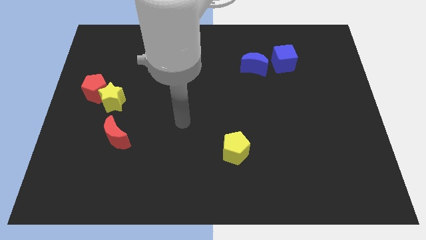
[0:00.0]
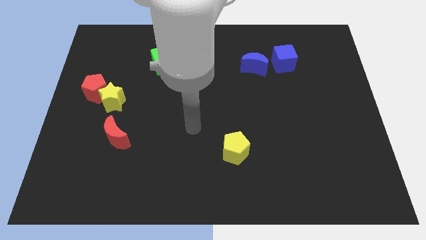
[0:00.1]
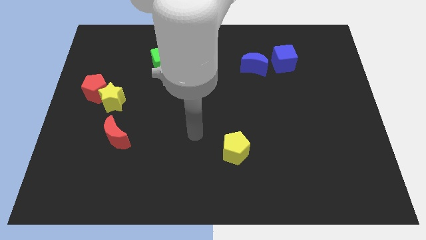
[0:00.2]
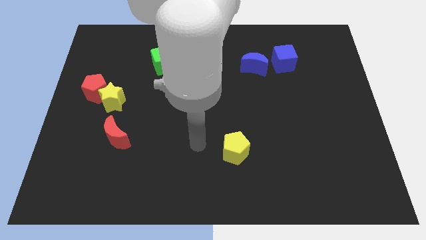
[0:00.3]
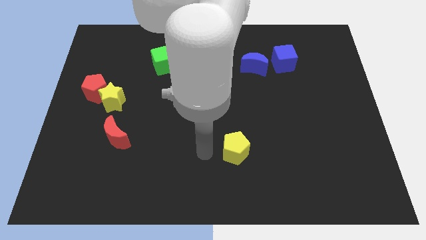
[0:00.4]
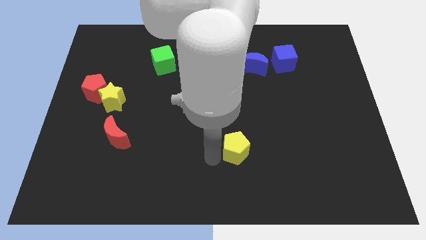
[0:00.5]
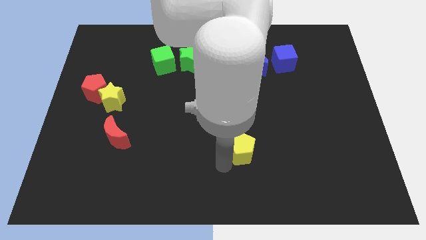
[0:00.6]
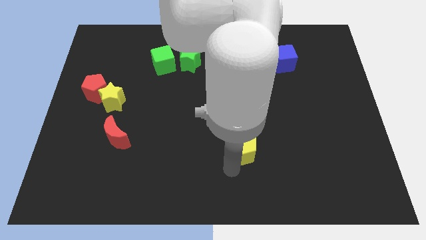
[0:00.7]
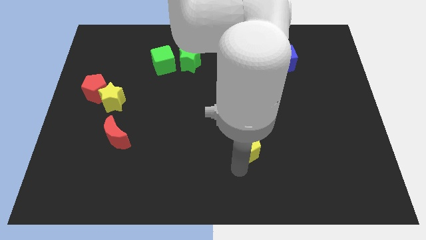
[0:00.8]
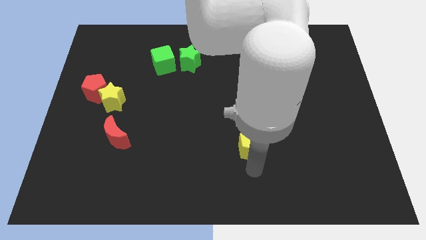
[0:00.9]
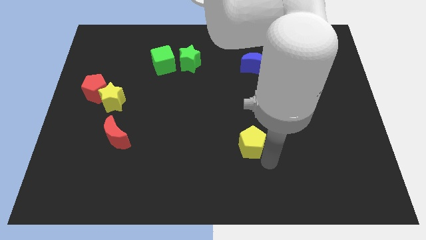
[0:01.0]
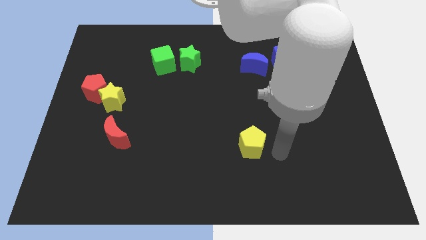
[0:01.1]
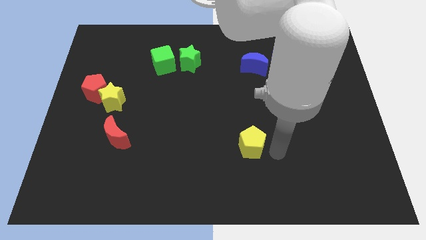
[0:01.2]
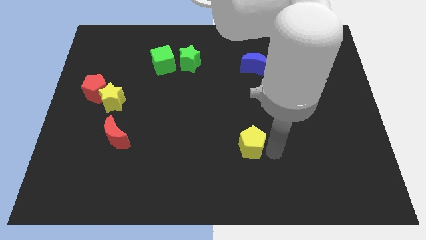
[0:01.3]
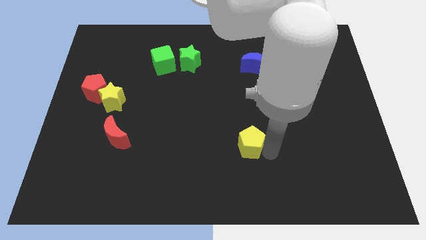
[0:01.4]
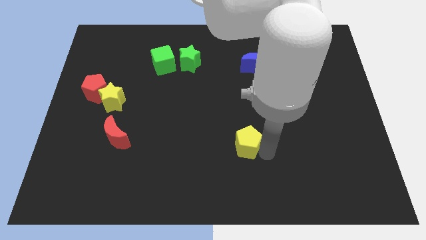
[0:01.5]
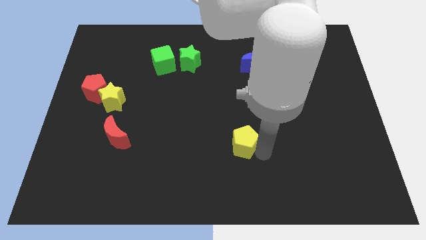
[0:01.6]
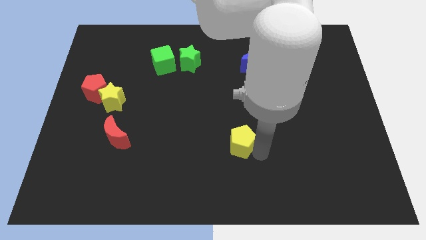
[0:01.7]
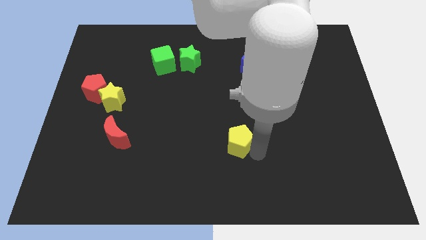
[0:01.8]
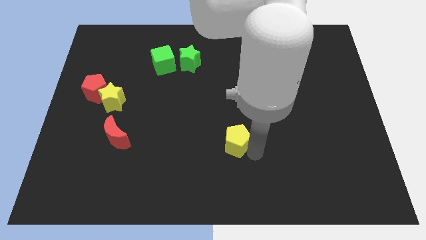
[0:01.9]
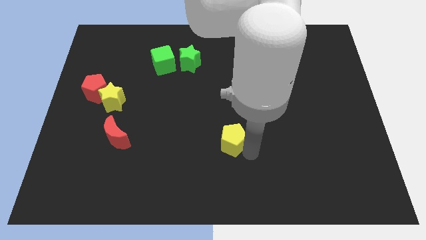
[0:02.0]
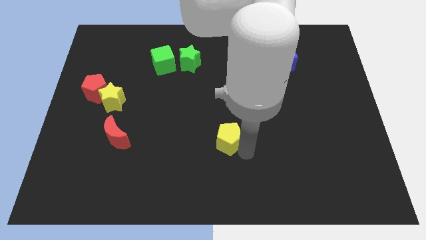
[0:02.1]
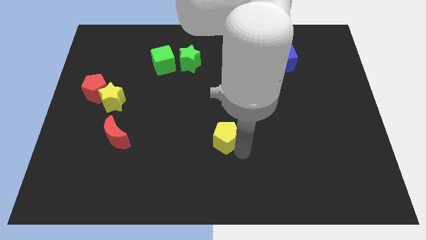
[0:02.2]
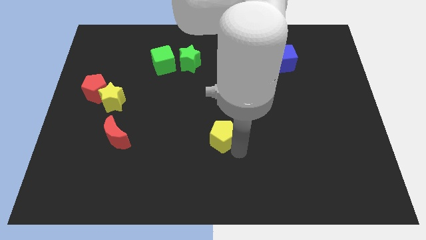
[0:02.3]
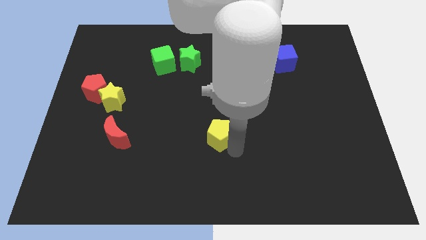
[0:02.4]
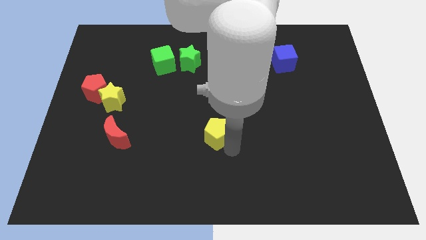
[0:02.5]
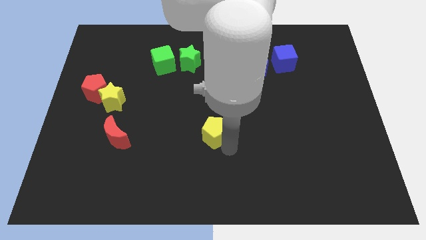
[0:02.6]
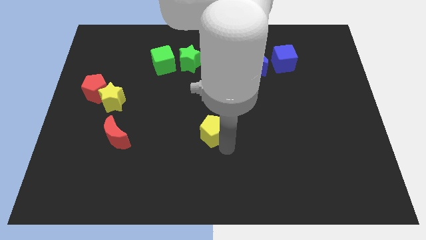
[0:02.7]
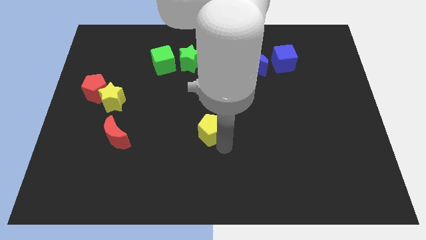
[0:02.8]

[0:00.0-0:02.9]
slightly move the yellow pentagon diagonally upwards and to the left

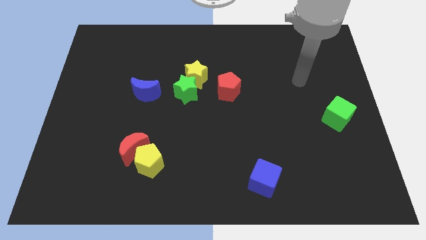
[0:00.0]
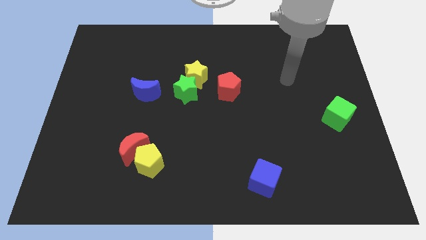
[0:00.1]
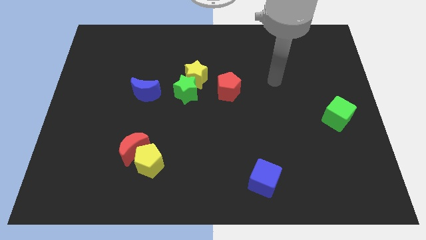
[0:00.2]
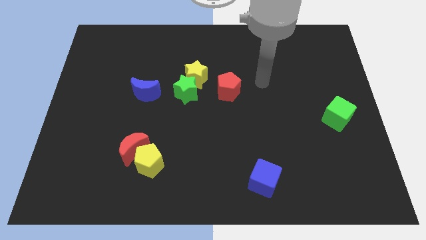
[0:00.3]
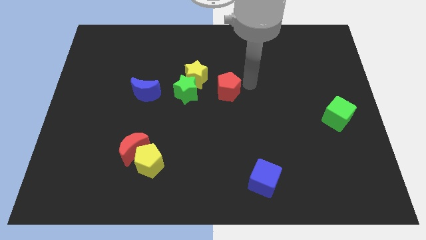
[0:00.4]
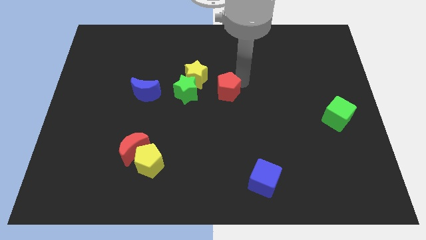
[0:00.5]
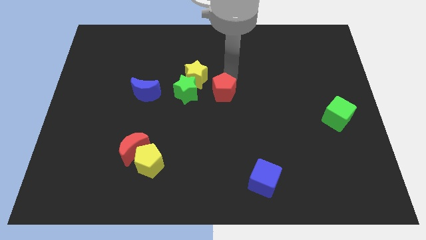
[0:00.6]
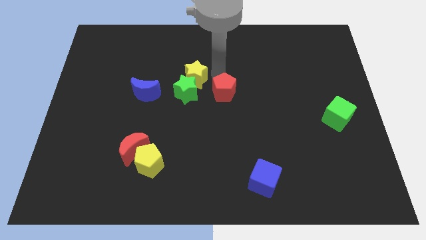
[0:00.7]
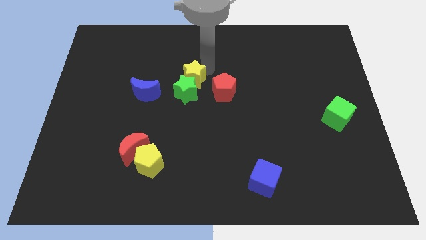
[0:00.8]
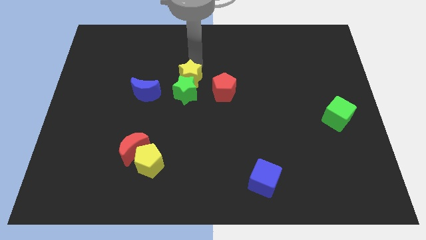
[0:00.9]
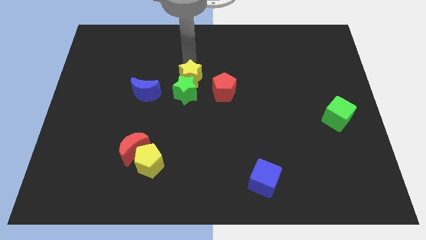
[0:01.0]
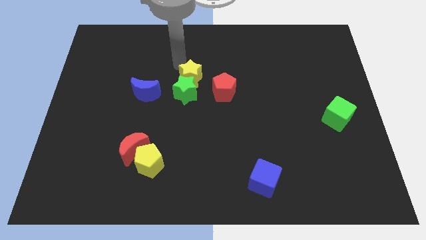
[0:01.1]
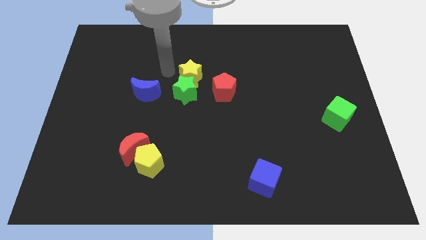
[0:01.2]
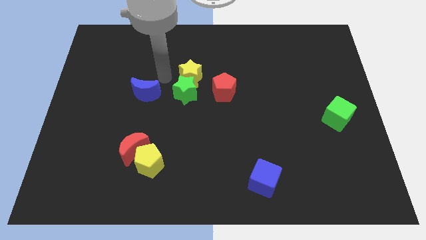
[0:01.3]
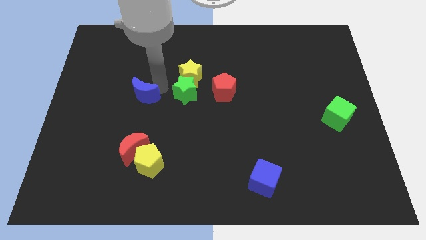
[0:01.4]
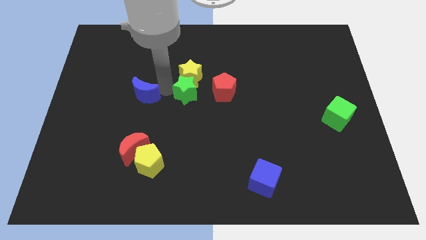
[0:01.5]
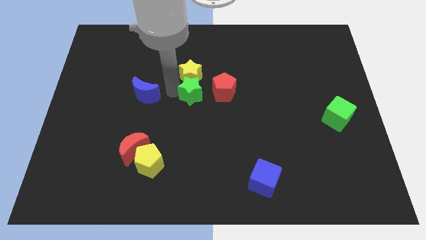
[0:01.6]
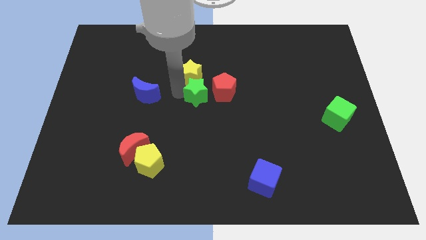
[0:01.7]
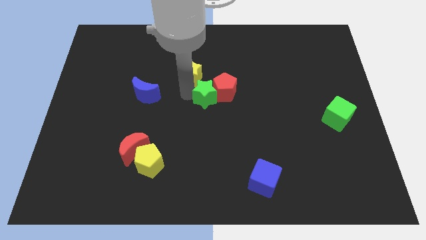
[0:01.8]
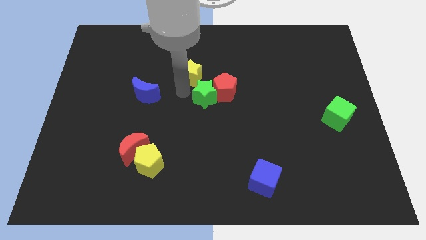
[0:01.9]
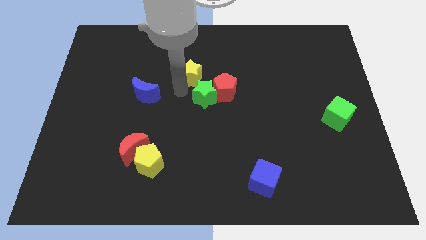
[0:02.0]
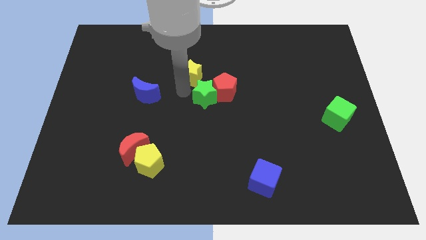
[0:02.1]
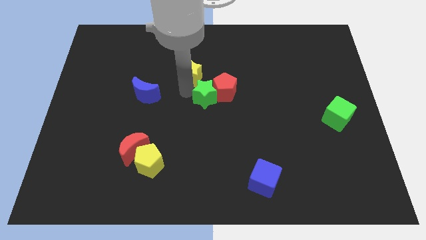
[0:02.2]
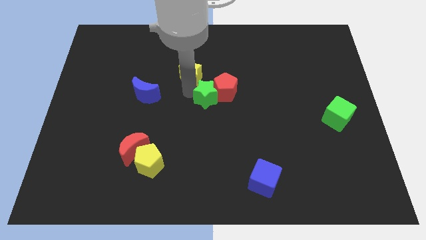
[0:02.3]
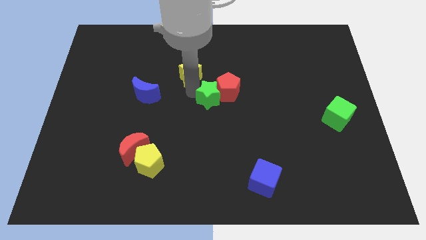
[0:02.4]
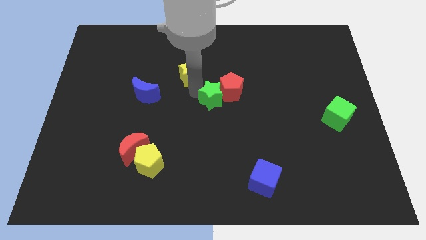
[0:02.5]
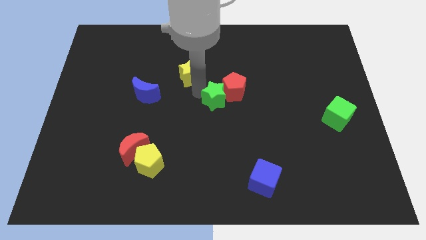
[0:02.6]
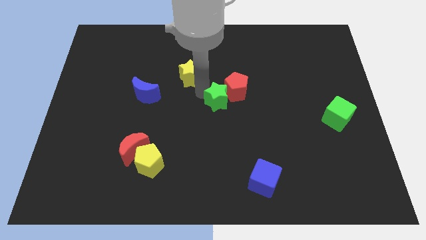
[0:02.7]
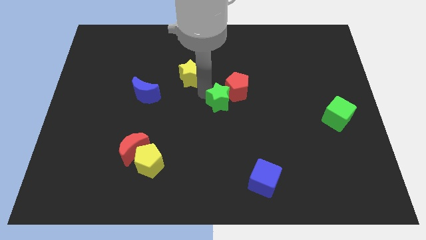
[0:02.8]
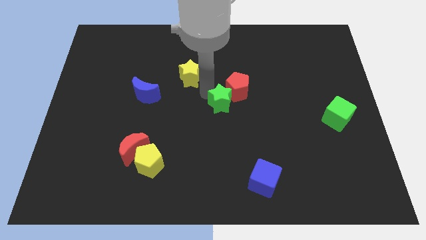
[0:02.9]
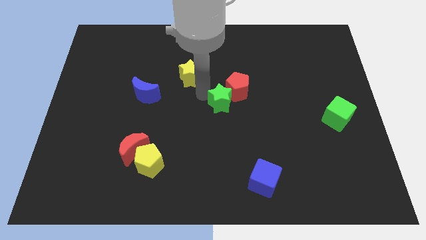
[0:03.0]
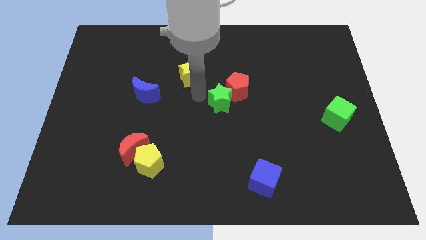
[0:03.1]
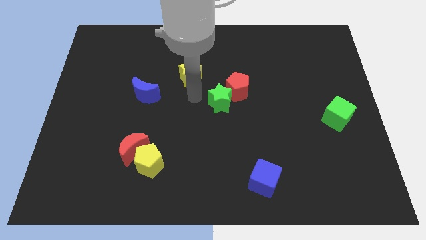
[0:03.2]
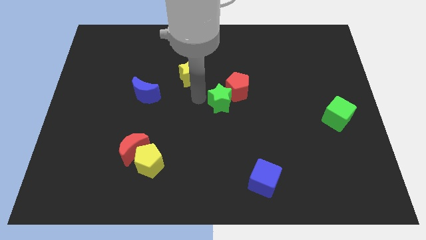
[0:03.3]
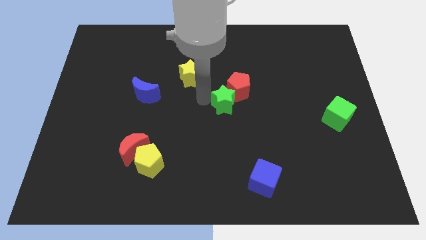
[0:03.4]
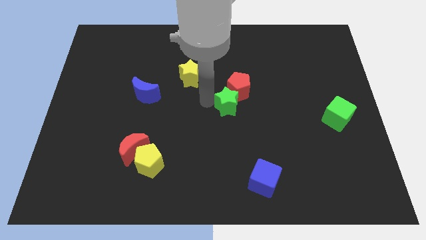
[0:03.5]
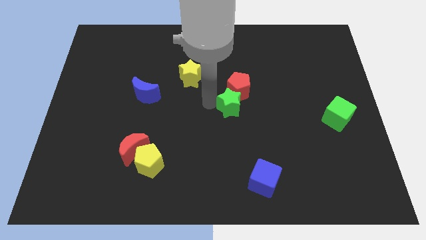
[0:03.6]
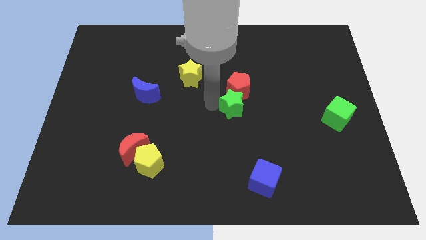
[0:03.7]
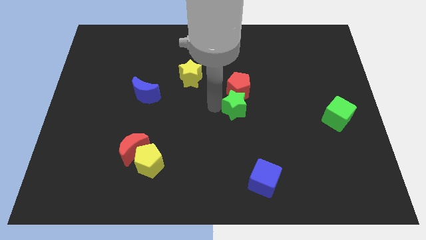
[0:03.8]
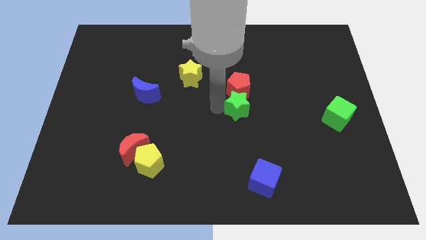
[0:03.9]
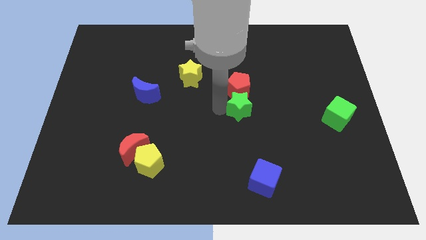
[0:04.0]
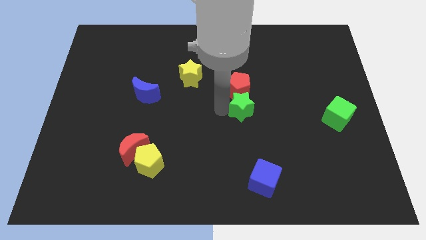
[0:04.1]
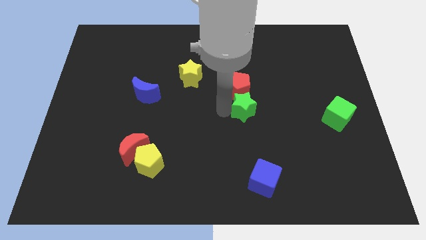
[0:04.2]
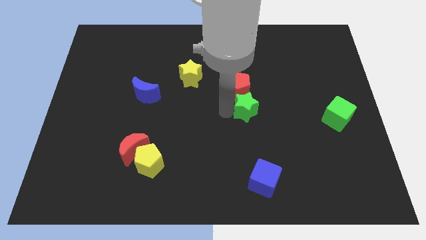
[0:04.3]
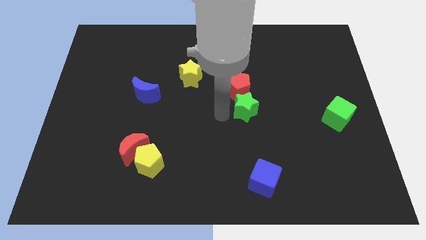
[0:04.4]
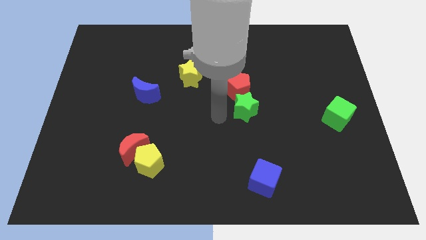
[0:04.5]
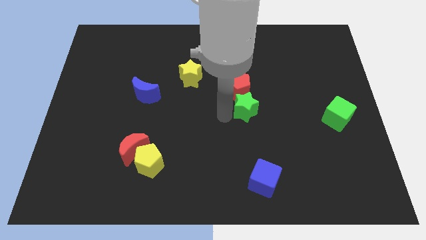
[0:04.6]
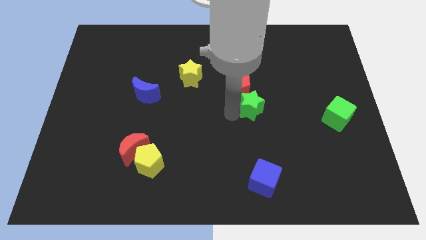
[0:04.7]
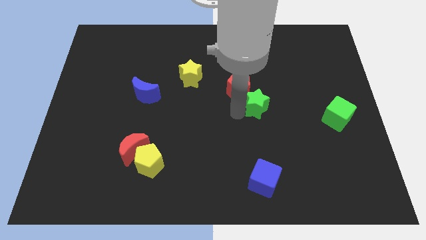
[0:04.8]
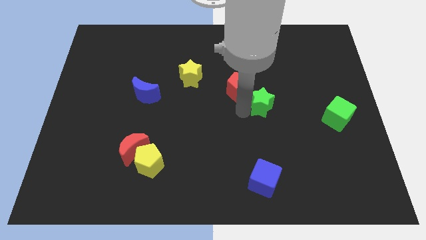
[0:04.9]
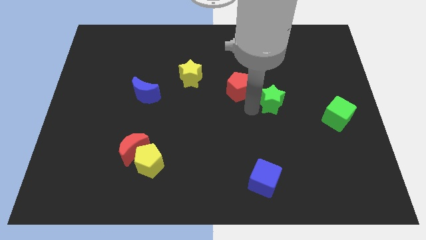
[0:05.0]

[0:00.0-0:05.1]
slide the green star right

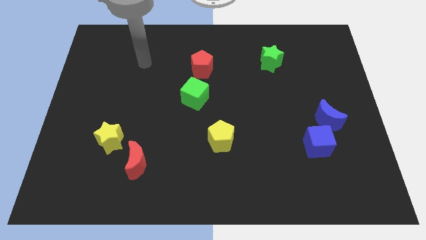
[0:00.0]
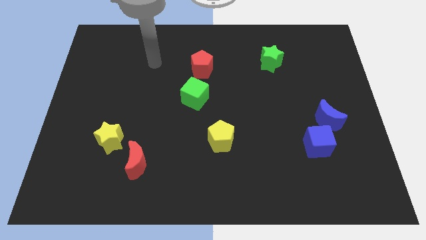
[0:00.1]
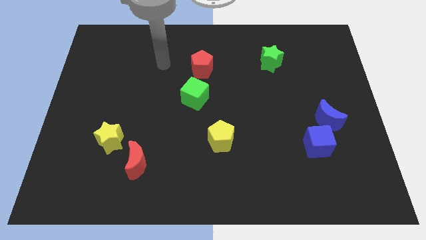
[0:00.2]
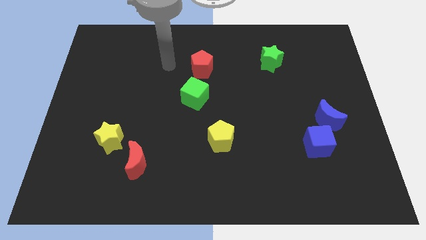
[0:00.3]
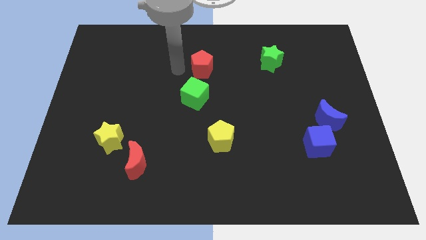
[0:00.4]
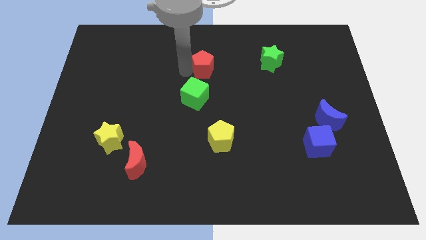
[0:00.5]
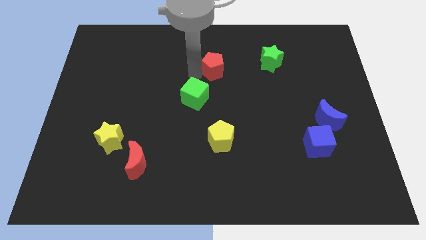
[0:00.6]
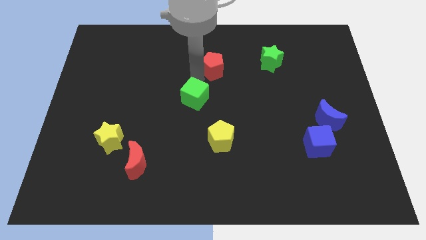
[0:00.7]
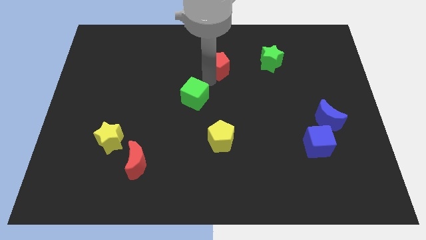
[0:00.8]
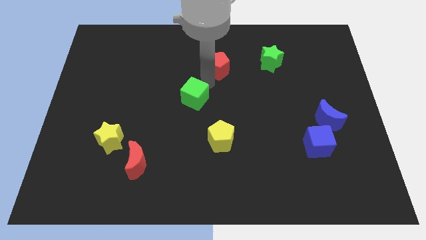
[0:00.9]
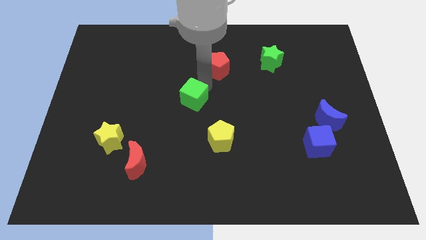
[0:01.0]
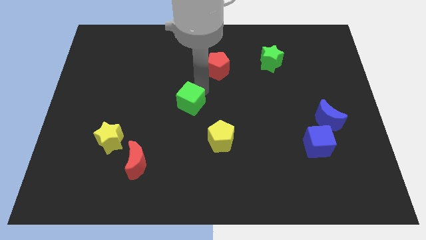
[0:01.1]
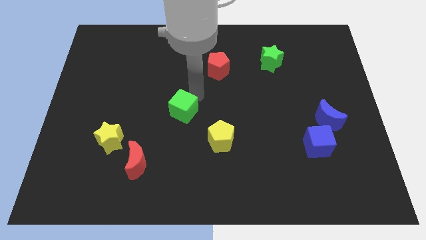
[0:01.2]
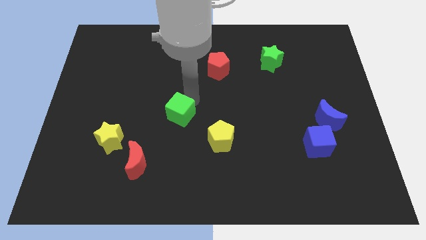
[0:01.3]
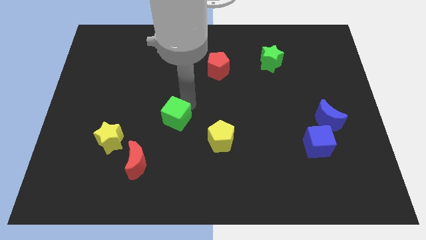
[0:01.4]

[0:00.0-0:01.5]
push the green cube a little bit down and left diagonally
